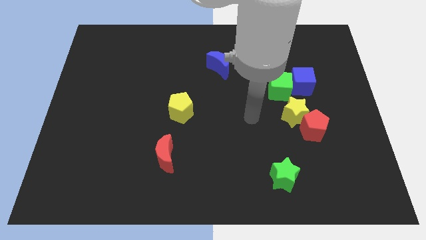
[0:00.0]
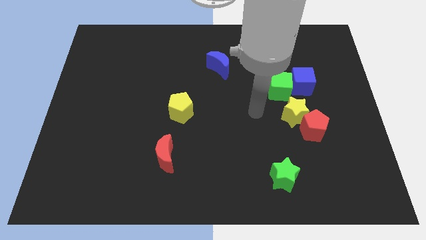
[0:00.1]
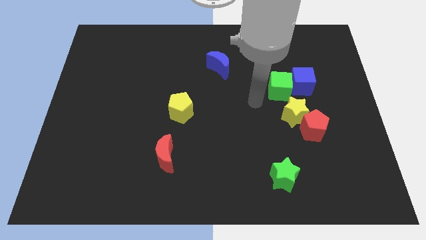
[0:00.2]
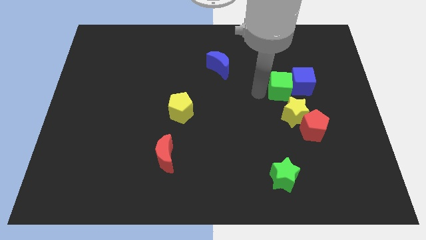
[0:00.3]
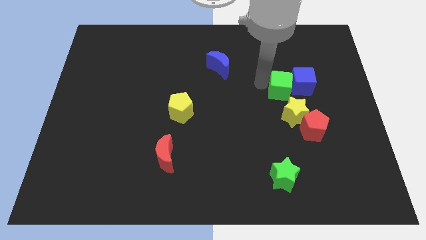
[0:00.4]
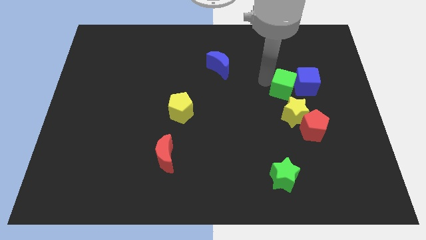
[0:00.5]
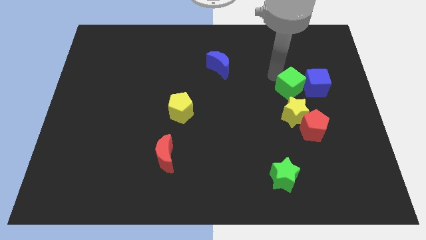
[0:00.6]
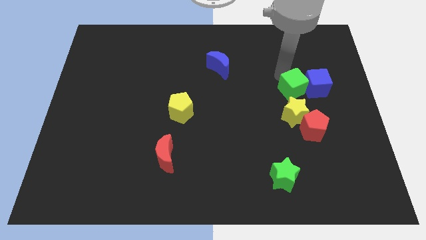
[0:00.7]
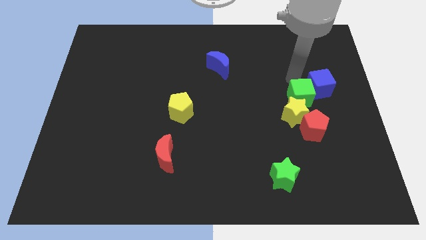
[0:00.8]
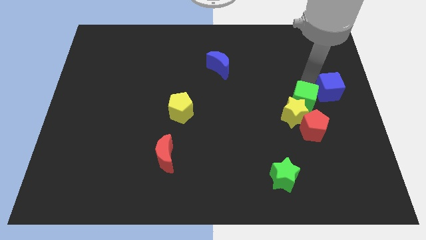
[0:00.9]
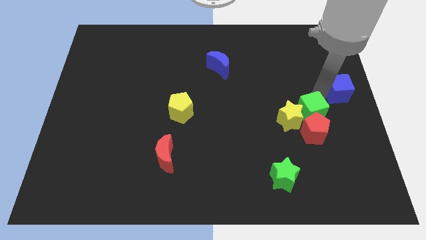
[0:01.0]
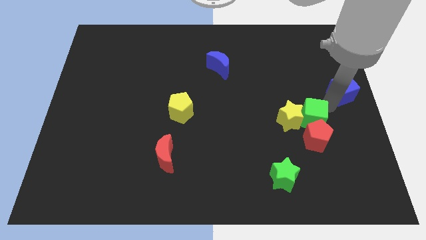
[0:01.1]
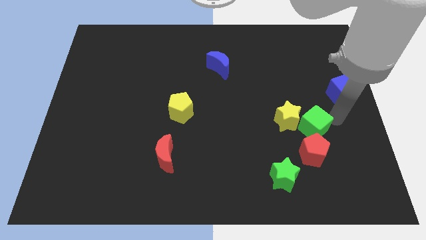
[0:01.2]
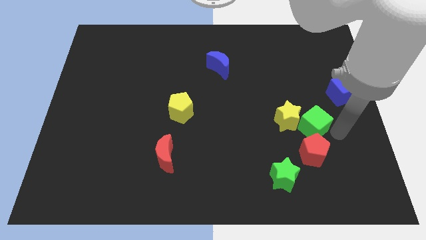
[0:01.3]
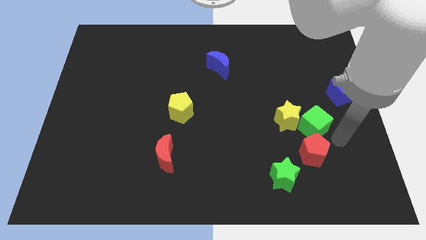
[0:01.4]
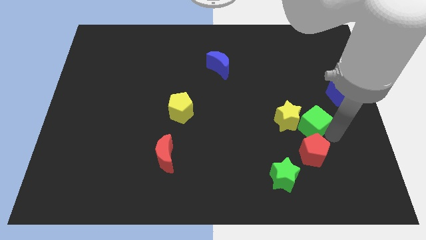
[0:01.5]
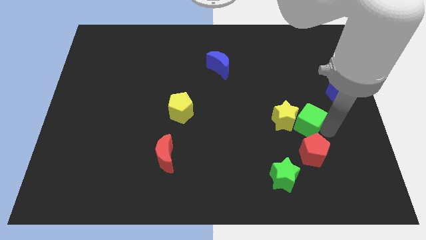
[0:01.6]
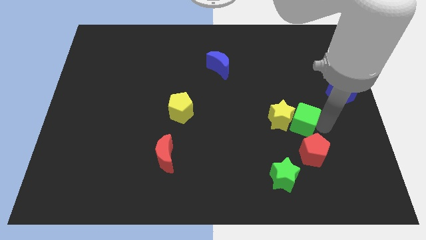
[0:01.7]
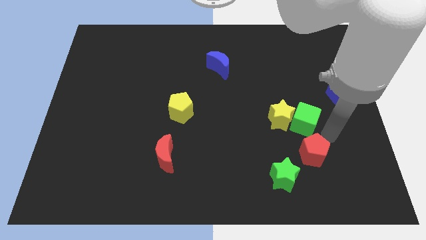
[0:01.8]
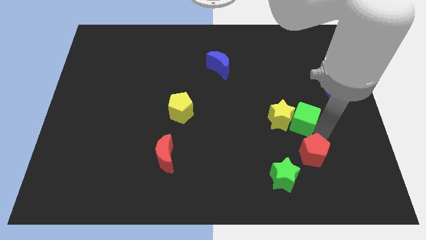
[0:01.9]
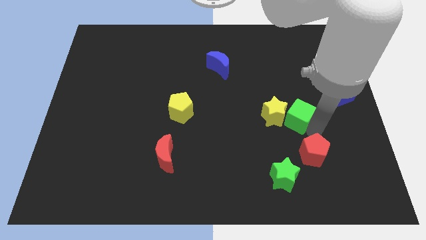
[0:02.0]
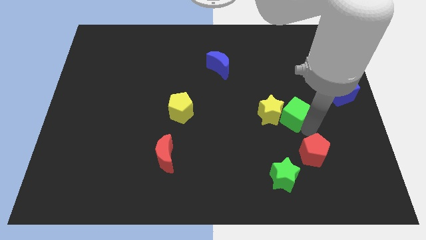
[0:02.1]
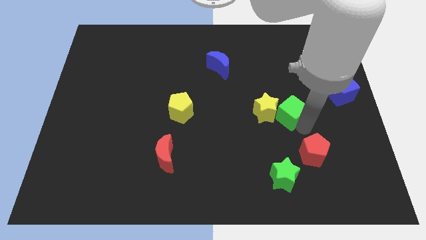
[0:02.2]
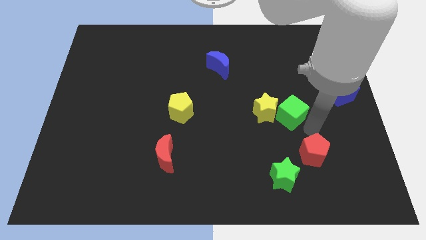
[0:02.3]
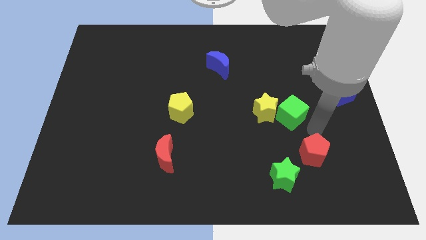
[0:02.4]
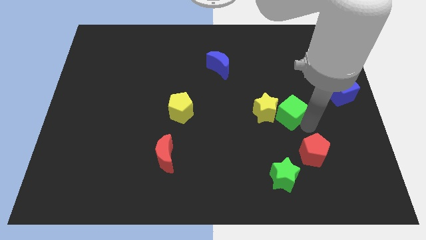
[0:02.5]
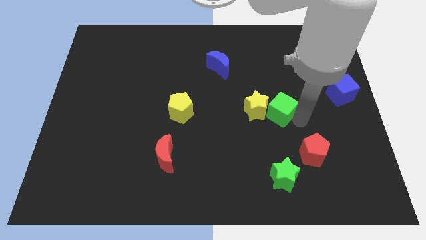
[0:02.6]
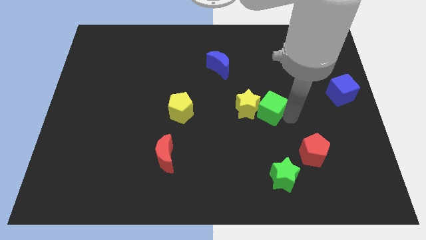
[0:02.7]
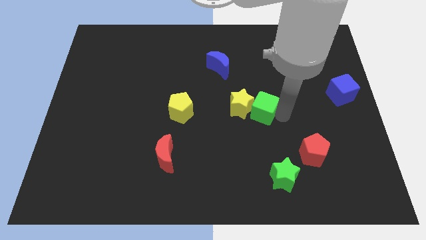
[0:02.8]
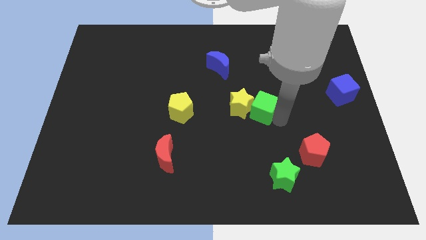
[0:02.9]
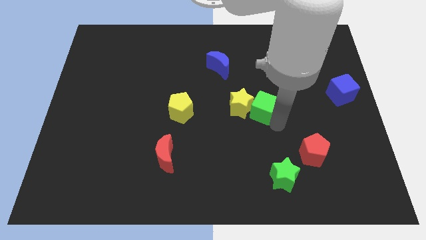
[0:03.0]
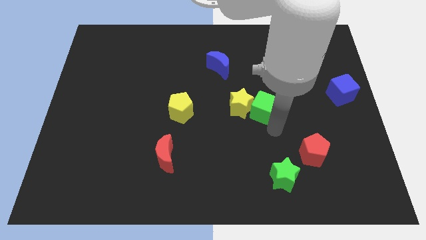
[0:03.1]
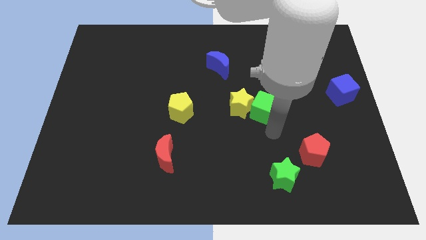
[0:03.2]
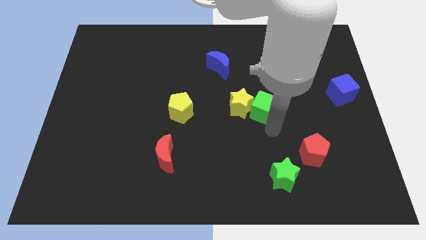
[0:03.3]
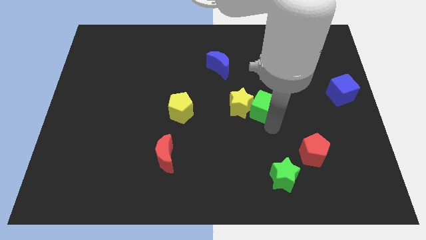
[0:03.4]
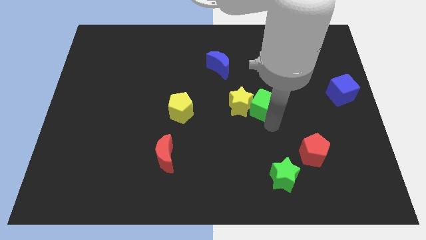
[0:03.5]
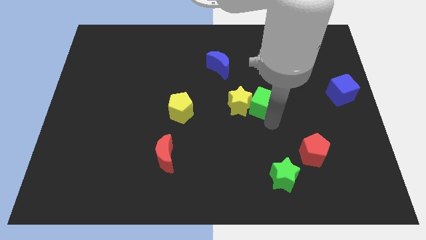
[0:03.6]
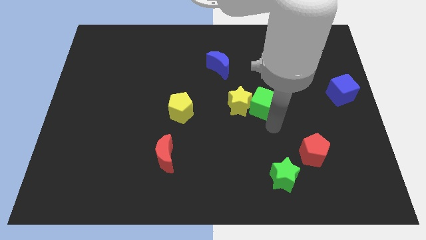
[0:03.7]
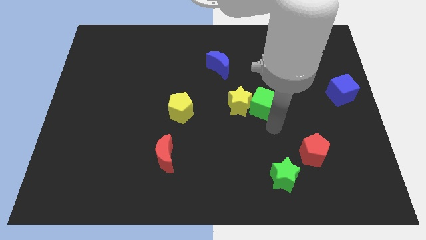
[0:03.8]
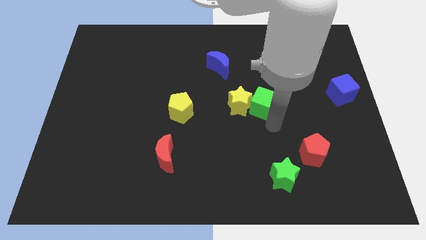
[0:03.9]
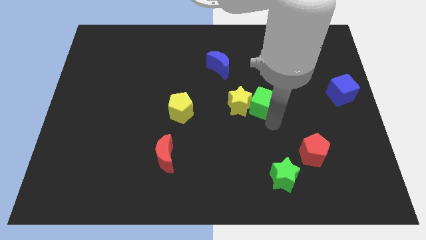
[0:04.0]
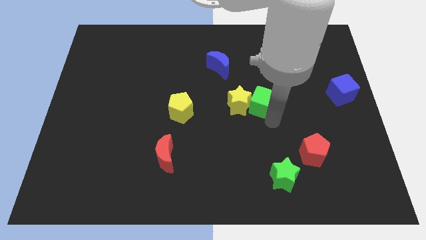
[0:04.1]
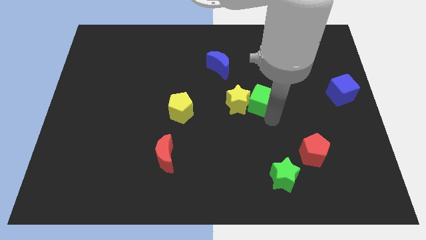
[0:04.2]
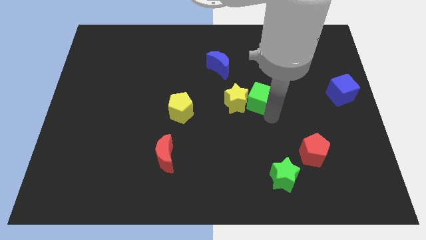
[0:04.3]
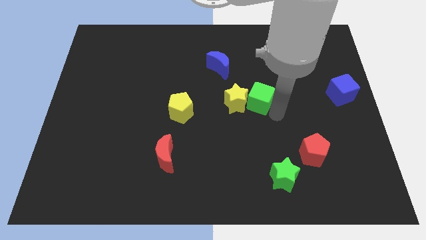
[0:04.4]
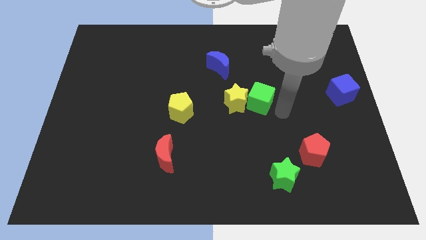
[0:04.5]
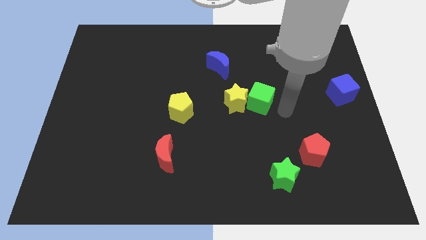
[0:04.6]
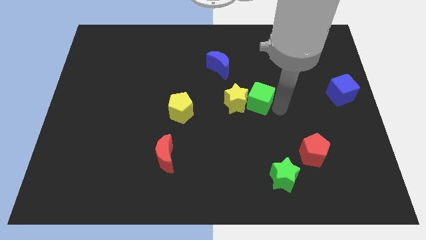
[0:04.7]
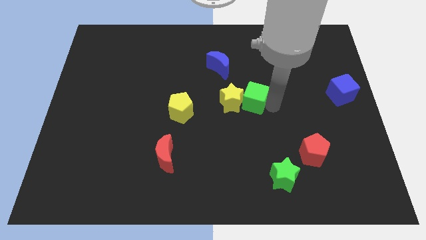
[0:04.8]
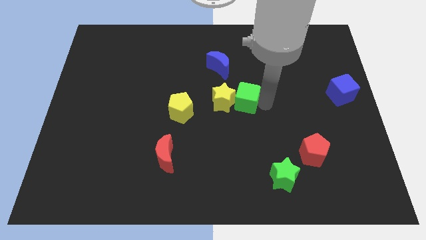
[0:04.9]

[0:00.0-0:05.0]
push the green cube left a little bit

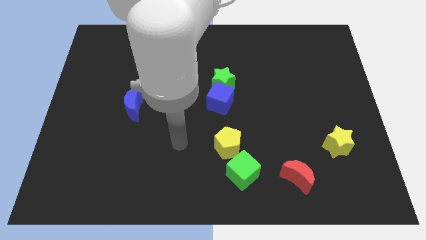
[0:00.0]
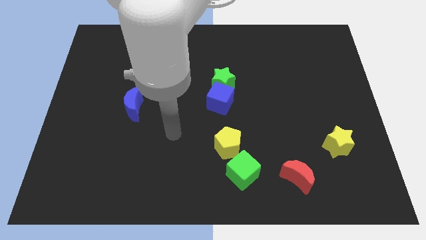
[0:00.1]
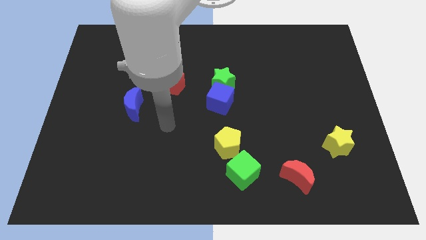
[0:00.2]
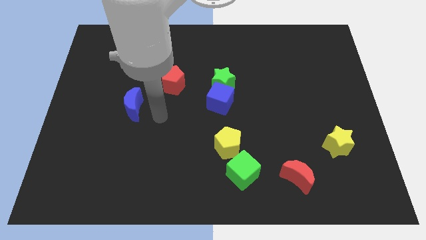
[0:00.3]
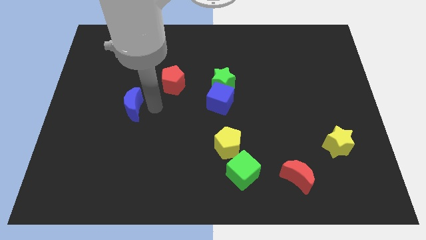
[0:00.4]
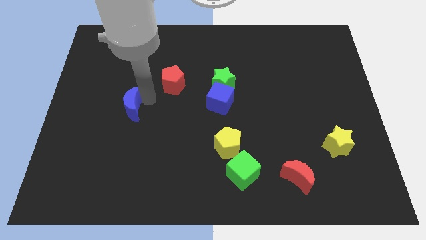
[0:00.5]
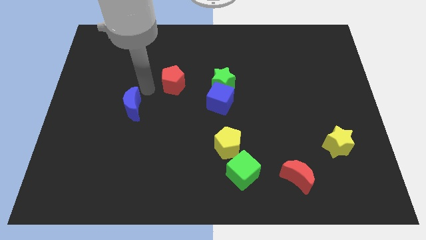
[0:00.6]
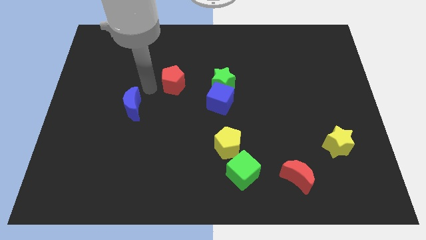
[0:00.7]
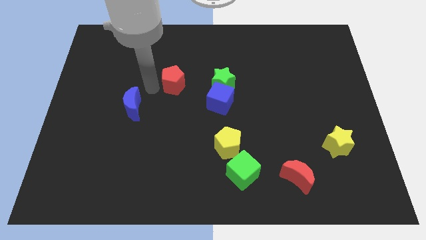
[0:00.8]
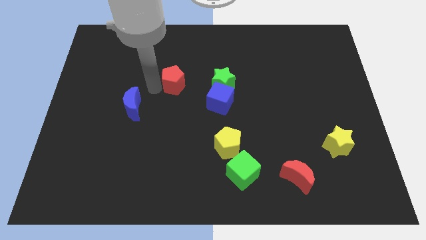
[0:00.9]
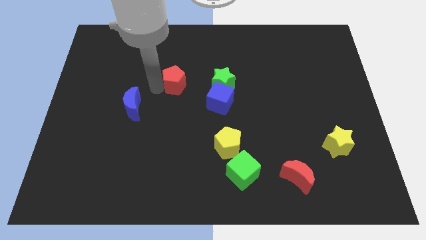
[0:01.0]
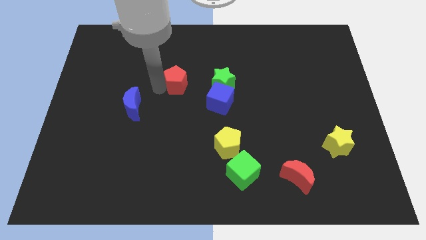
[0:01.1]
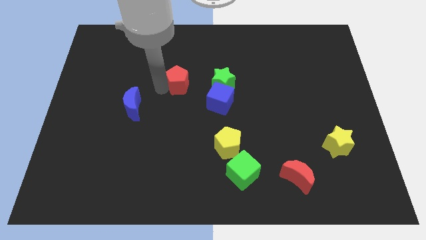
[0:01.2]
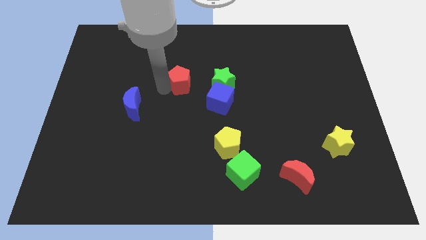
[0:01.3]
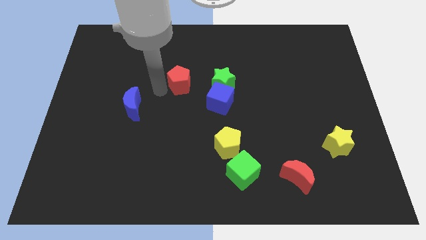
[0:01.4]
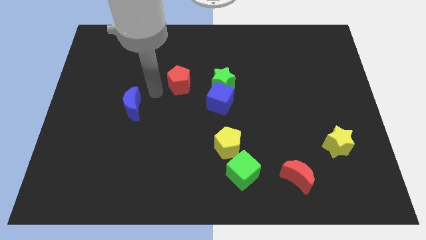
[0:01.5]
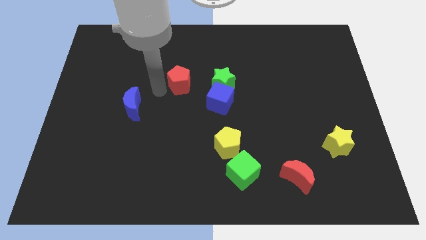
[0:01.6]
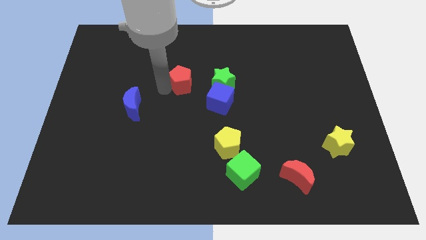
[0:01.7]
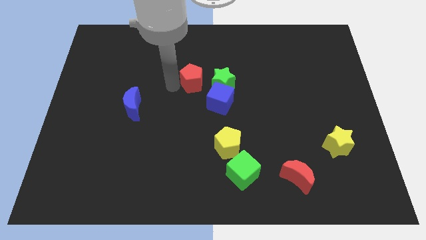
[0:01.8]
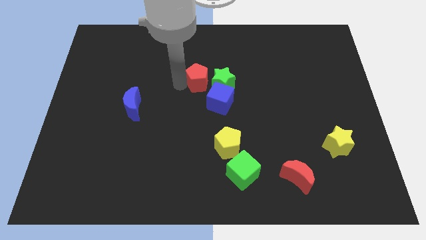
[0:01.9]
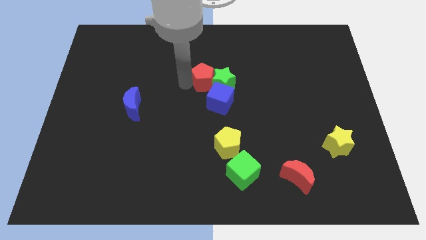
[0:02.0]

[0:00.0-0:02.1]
move the red pentagon a little to the right

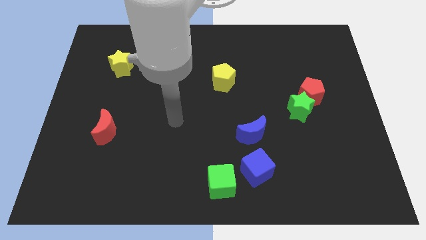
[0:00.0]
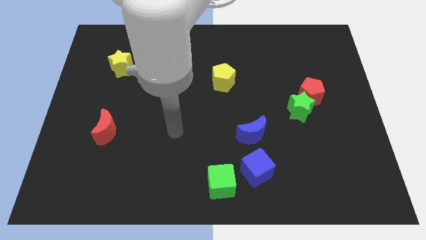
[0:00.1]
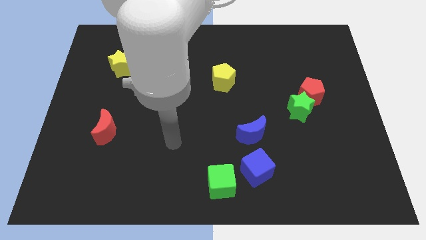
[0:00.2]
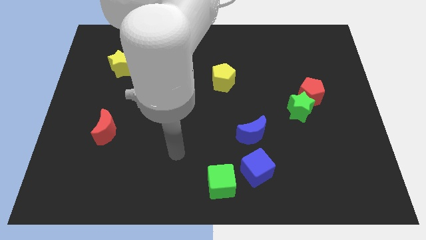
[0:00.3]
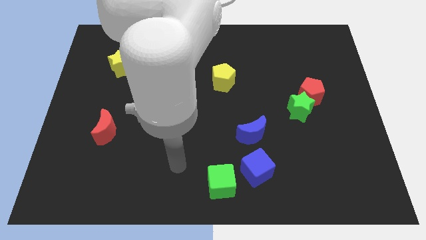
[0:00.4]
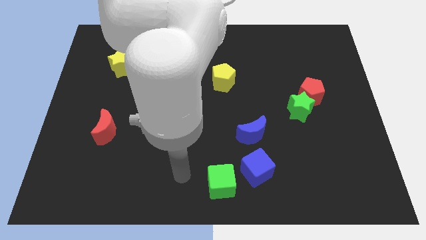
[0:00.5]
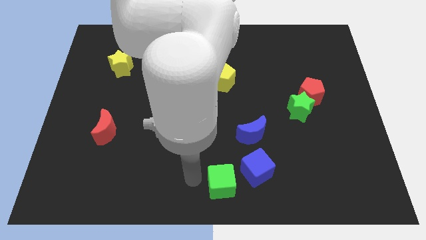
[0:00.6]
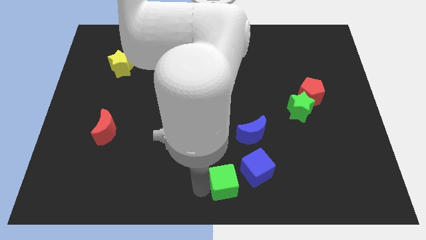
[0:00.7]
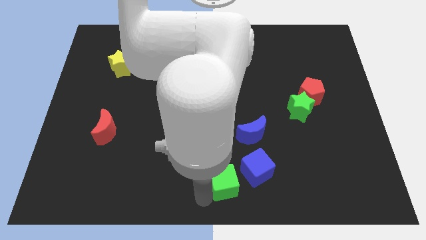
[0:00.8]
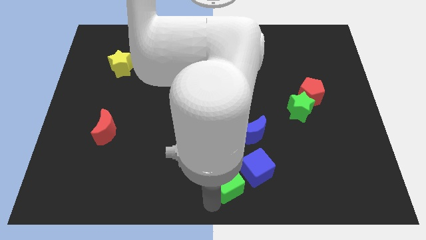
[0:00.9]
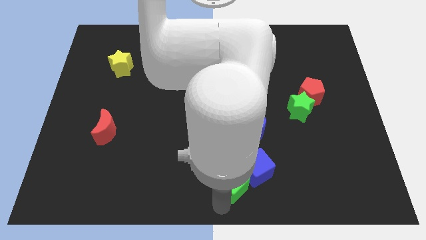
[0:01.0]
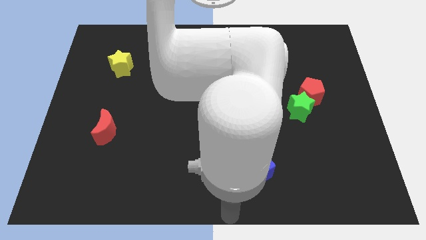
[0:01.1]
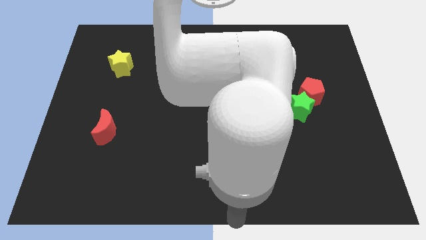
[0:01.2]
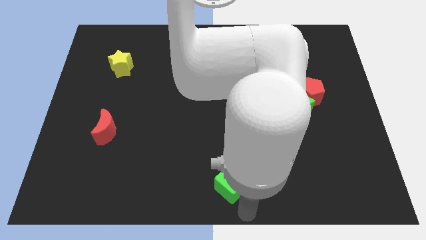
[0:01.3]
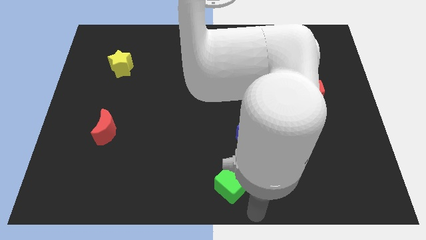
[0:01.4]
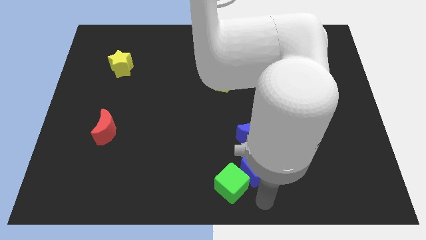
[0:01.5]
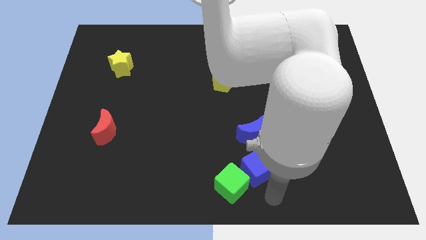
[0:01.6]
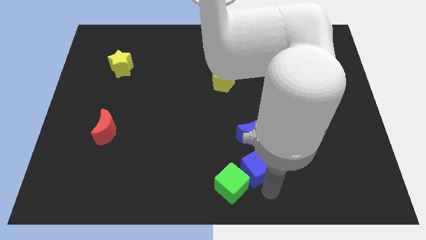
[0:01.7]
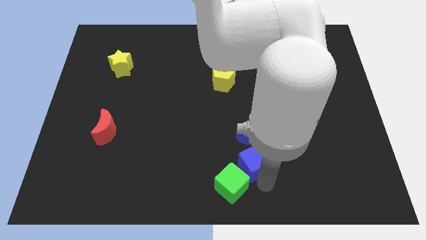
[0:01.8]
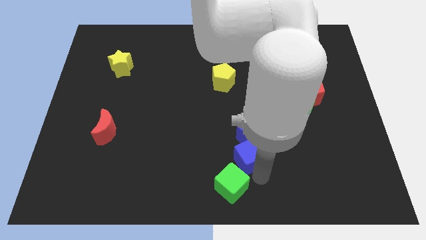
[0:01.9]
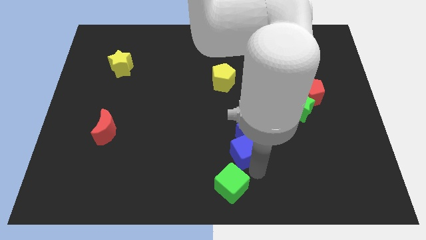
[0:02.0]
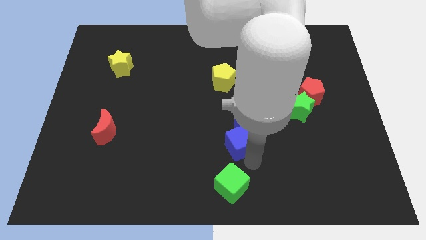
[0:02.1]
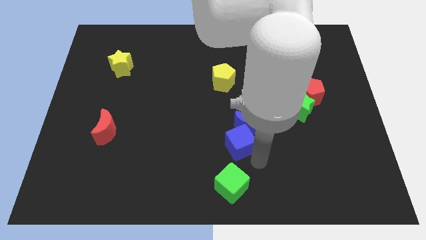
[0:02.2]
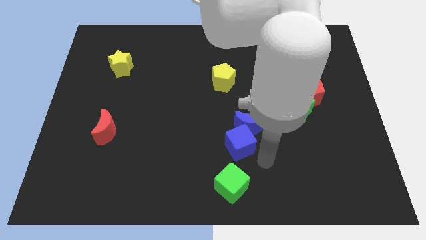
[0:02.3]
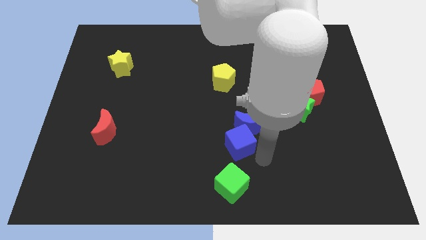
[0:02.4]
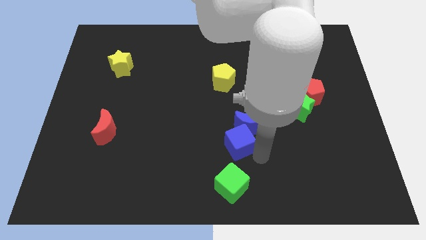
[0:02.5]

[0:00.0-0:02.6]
push the blue cube slightly up and left diagonally
